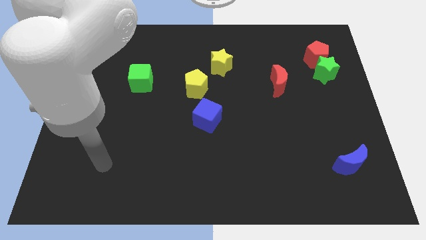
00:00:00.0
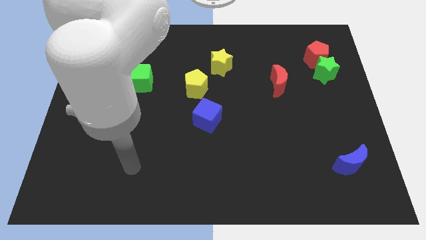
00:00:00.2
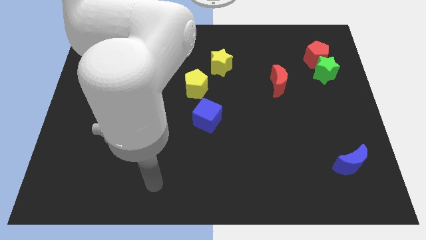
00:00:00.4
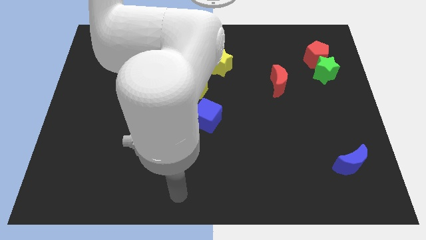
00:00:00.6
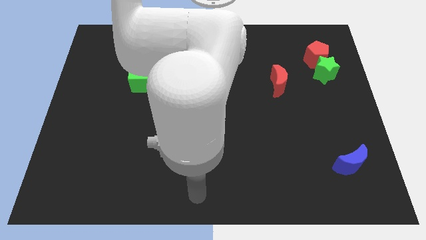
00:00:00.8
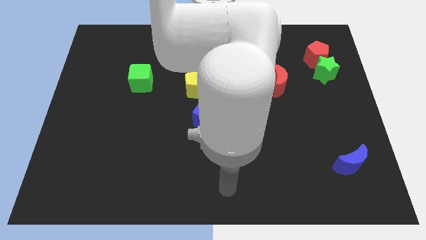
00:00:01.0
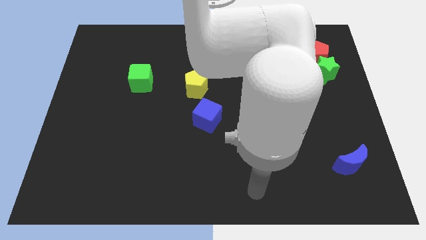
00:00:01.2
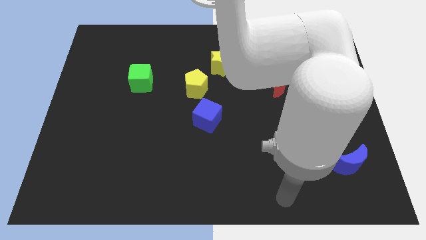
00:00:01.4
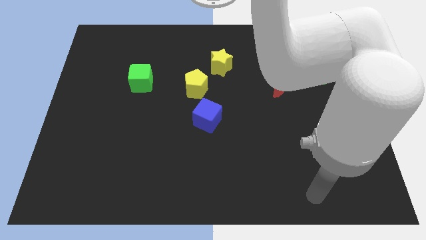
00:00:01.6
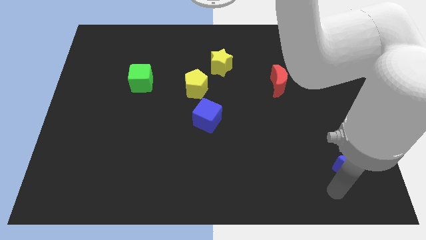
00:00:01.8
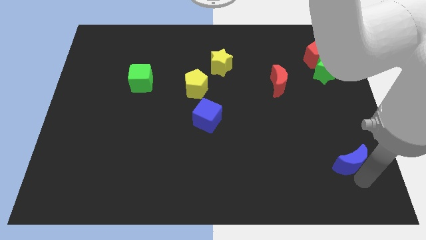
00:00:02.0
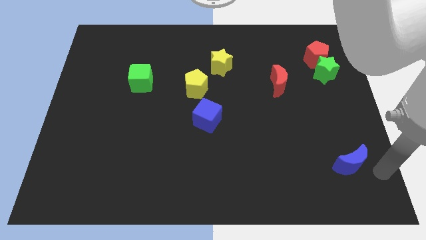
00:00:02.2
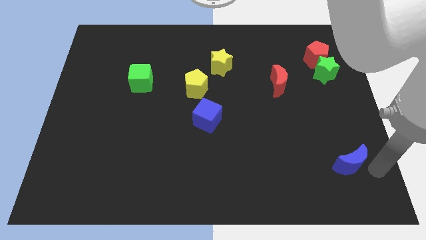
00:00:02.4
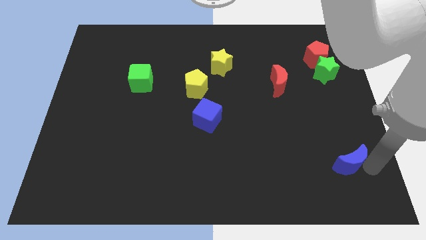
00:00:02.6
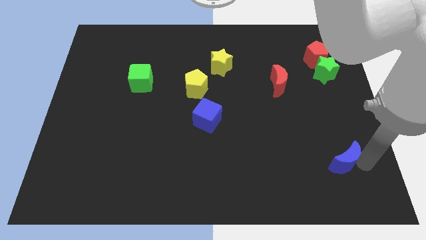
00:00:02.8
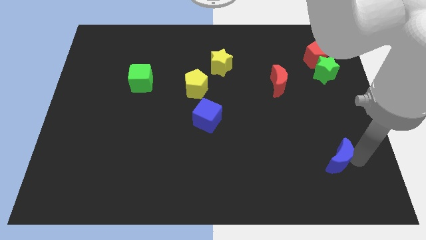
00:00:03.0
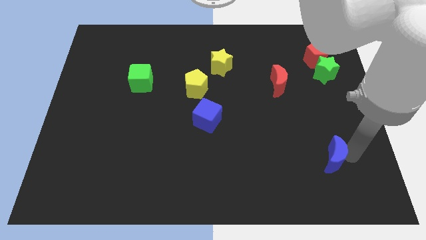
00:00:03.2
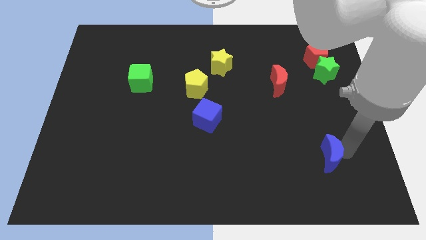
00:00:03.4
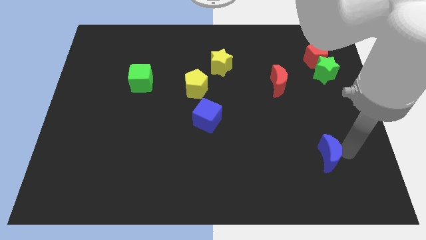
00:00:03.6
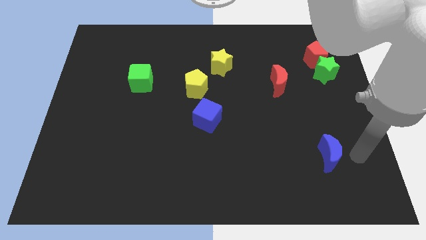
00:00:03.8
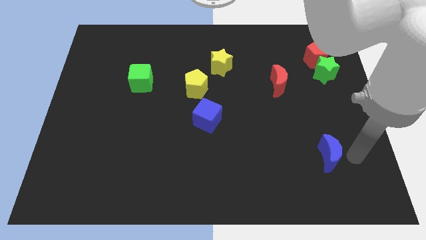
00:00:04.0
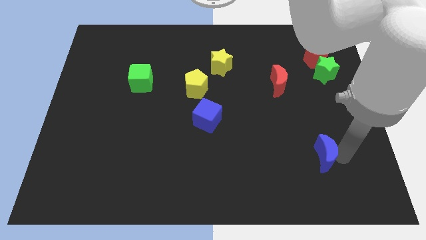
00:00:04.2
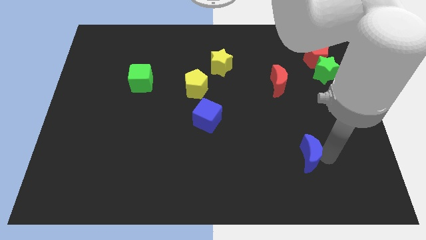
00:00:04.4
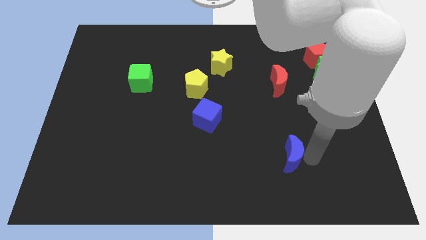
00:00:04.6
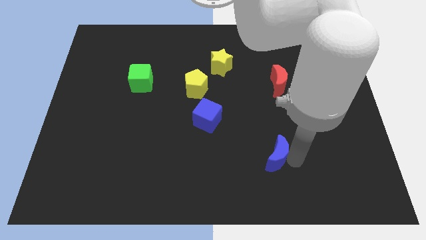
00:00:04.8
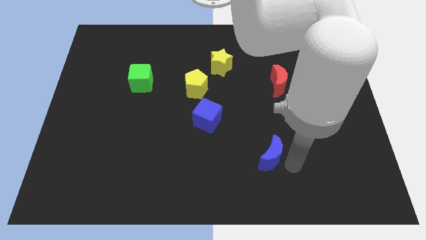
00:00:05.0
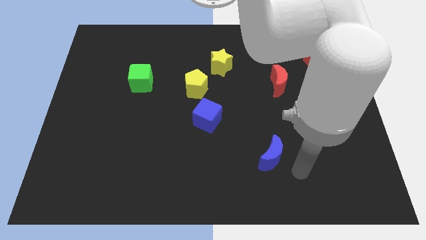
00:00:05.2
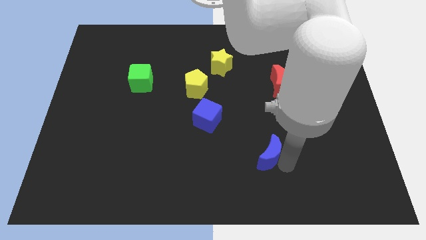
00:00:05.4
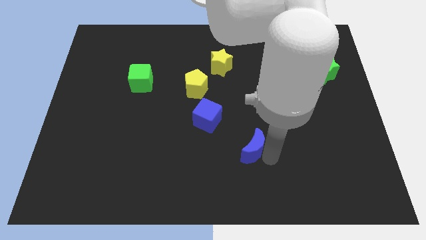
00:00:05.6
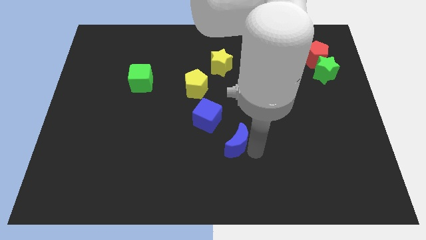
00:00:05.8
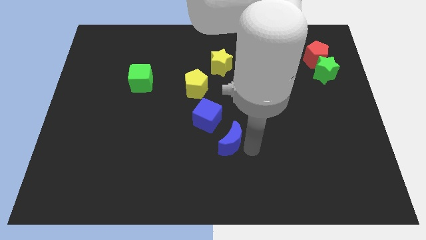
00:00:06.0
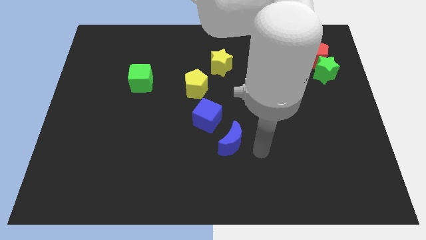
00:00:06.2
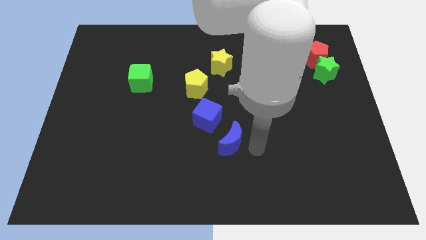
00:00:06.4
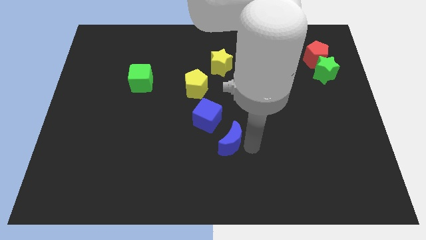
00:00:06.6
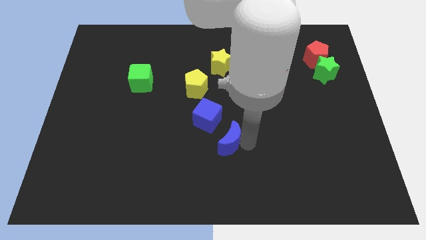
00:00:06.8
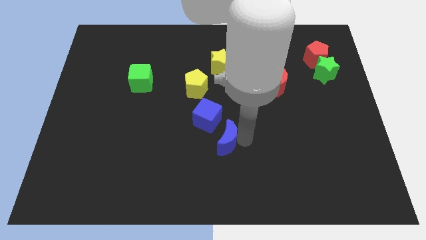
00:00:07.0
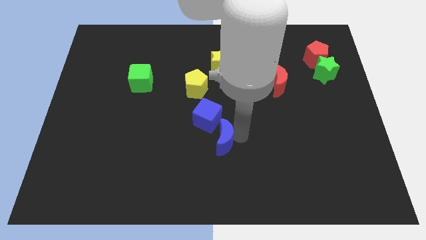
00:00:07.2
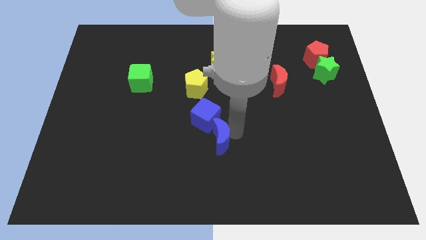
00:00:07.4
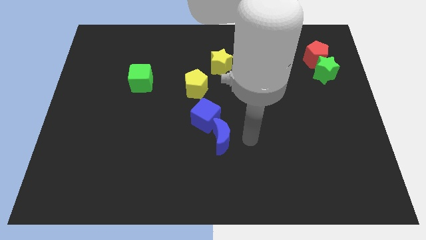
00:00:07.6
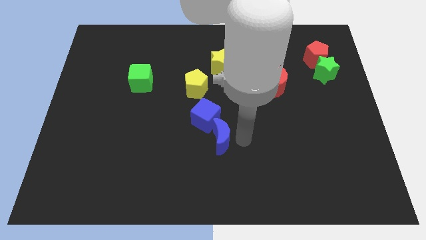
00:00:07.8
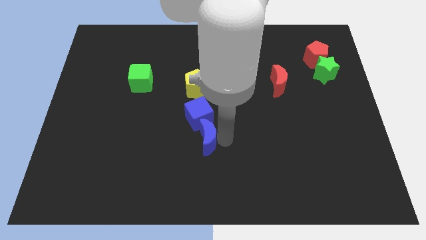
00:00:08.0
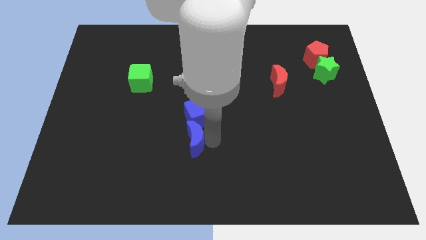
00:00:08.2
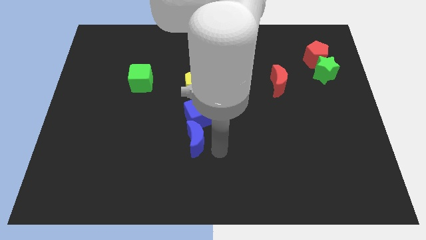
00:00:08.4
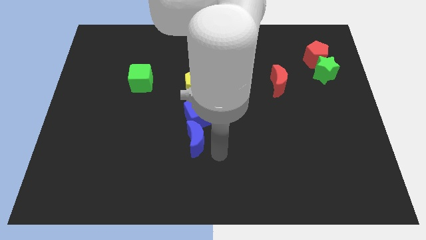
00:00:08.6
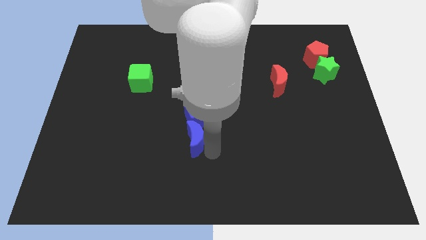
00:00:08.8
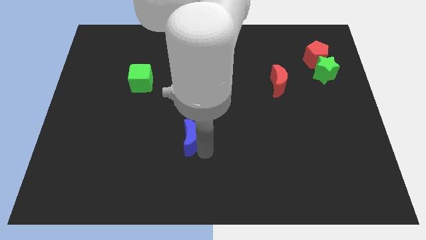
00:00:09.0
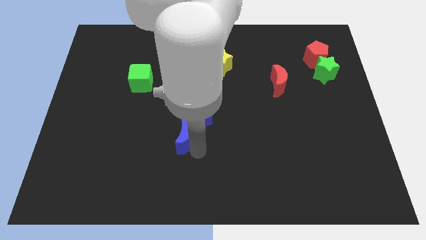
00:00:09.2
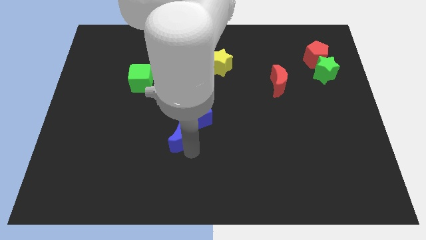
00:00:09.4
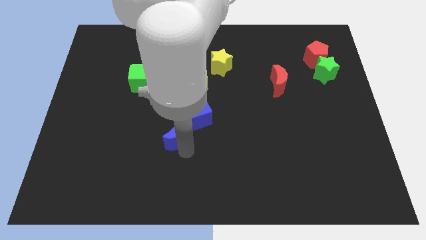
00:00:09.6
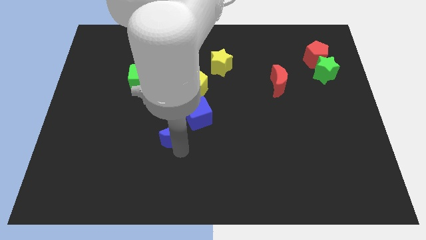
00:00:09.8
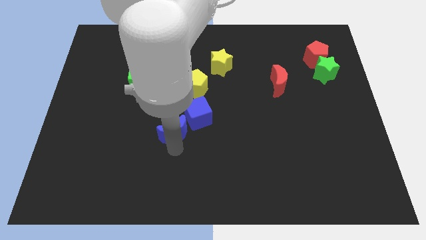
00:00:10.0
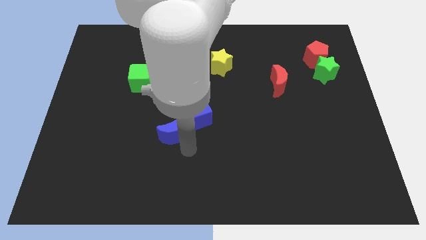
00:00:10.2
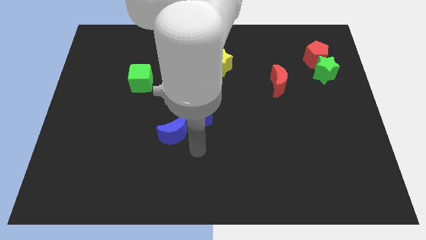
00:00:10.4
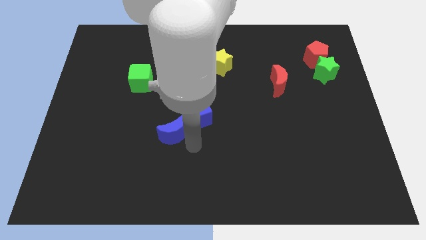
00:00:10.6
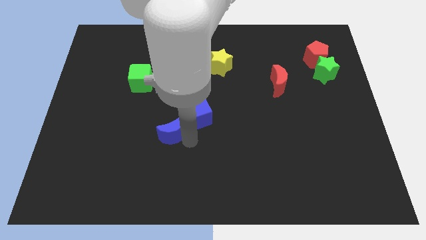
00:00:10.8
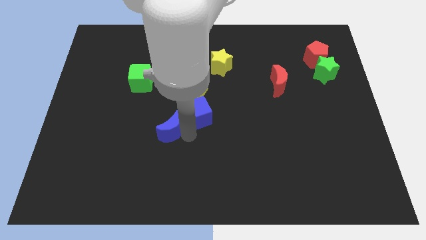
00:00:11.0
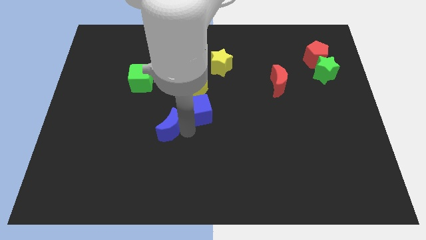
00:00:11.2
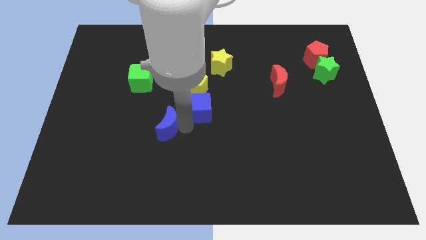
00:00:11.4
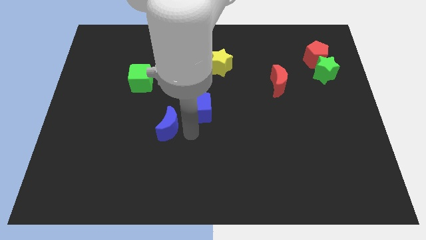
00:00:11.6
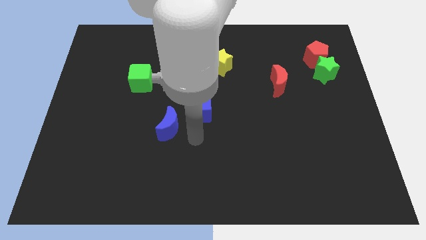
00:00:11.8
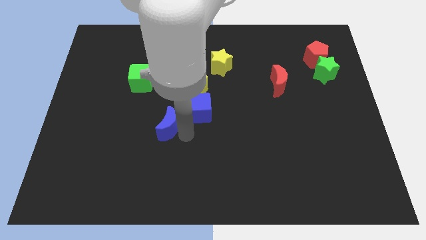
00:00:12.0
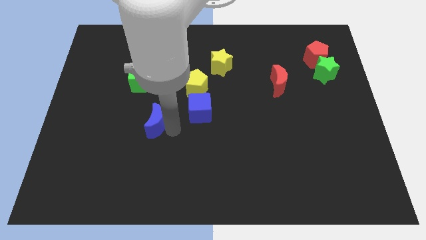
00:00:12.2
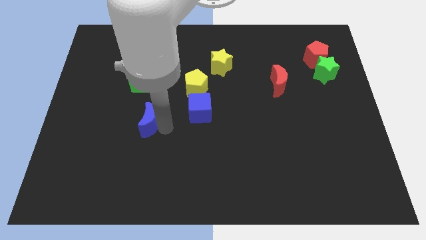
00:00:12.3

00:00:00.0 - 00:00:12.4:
put the blue moon below the green cube
